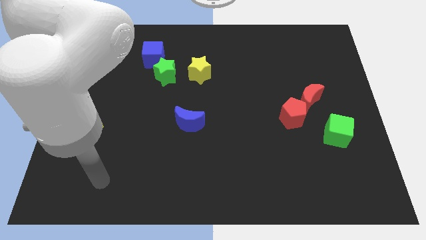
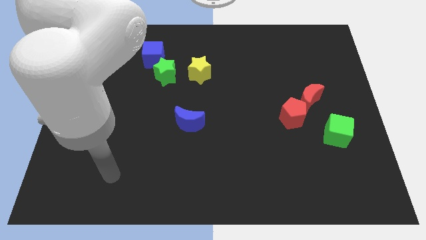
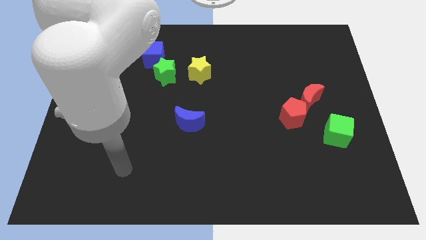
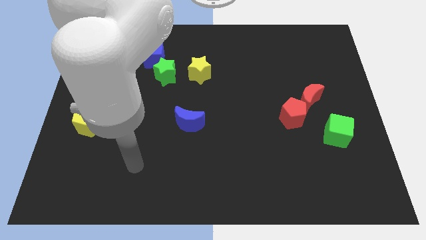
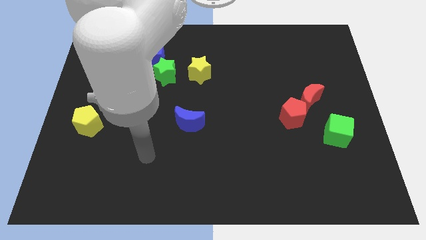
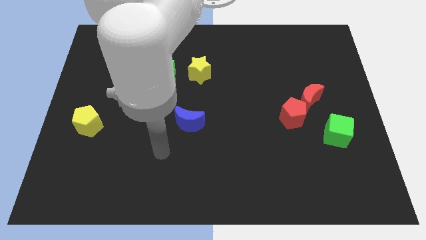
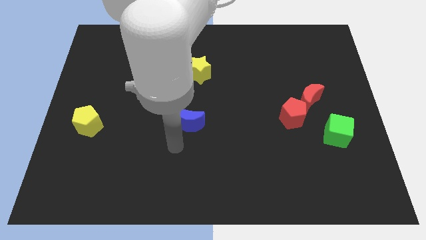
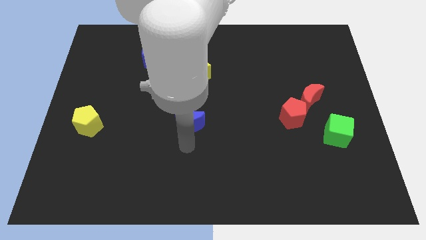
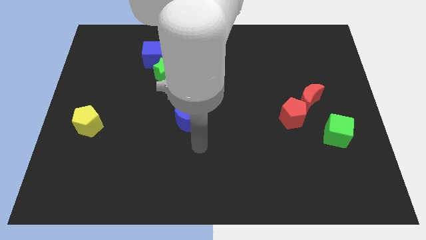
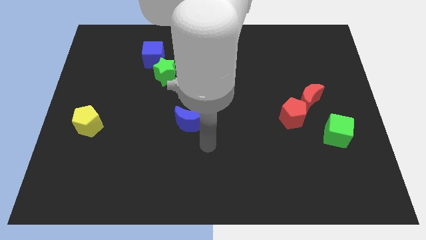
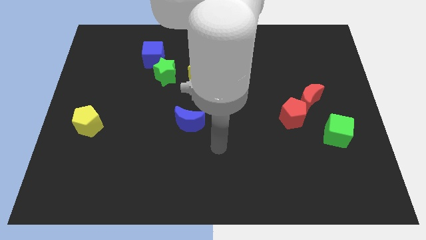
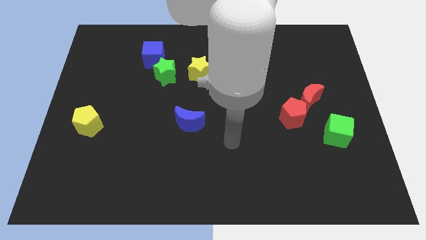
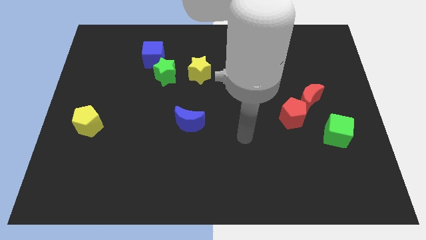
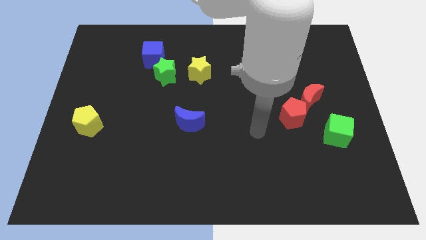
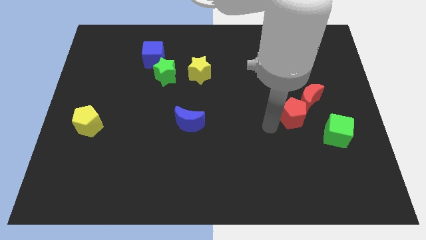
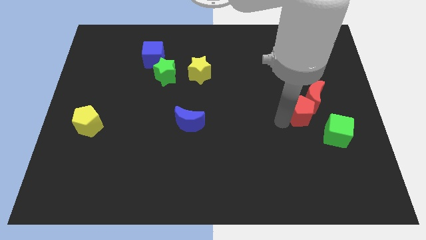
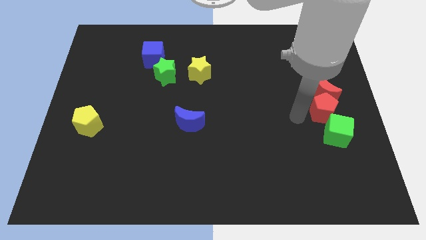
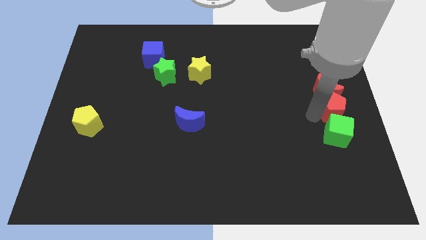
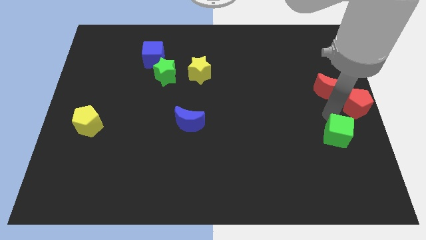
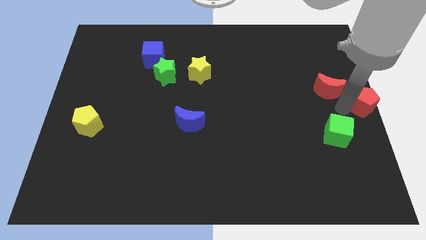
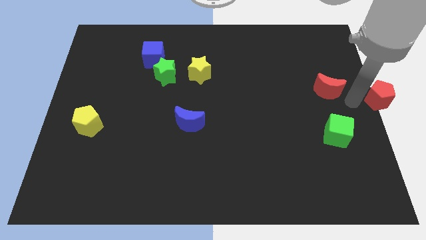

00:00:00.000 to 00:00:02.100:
move the red moon away from the red pentagon

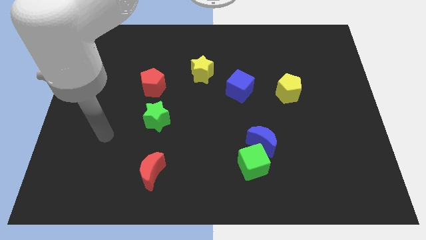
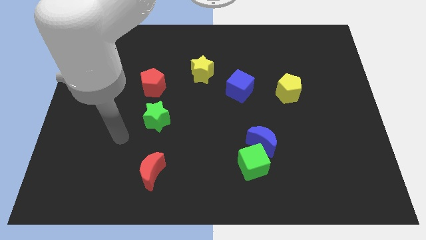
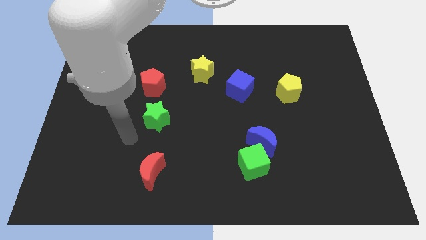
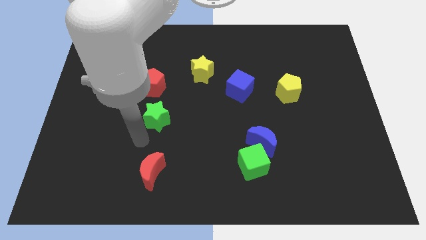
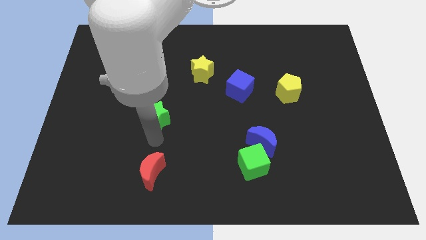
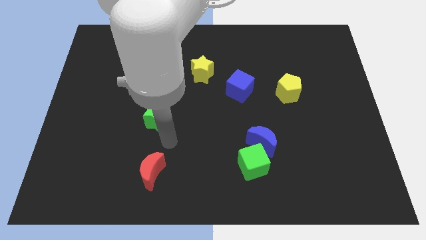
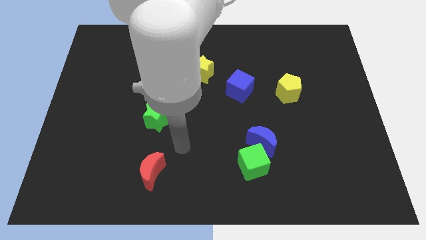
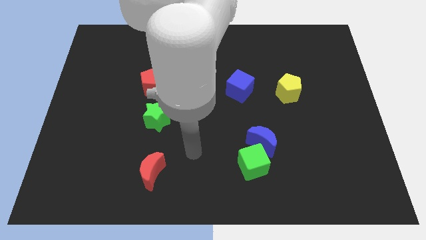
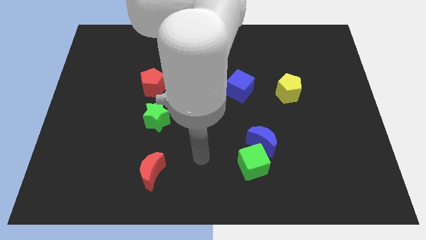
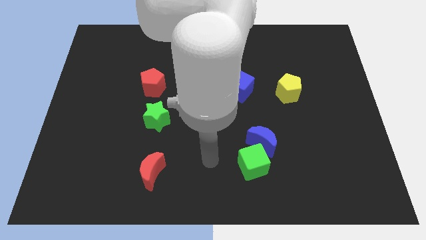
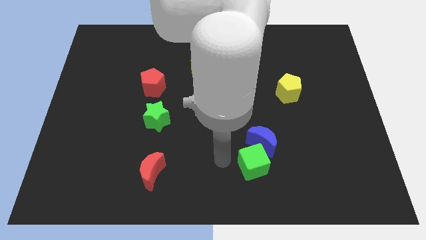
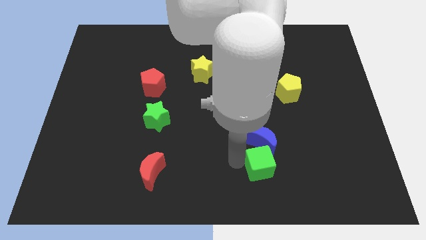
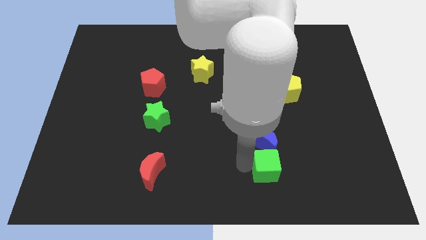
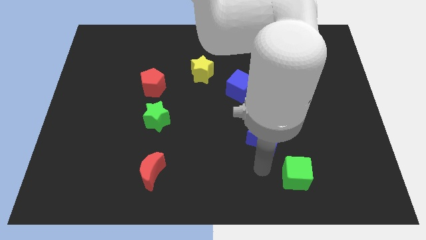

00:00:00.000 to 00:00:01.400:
move the blue moon away from the green cube

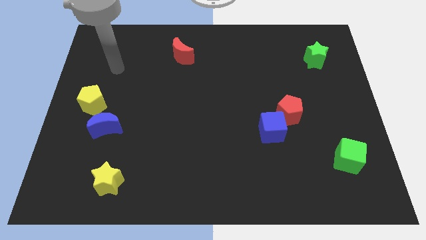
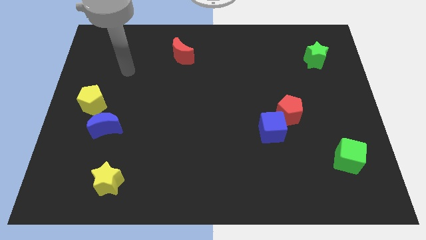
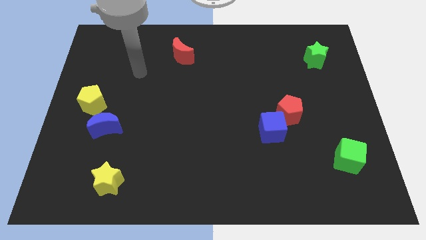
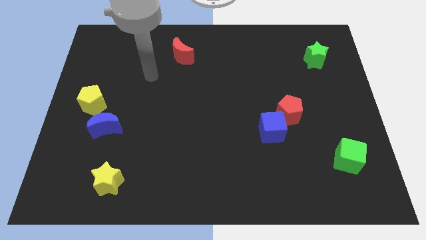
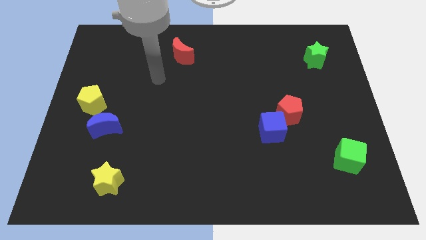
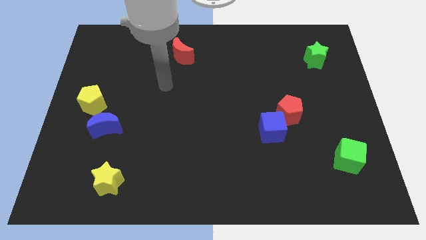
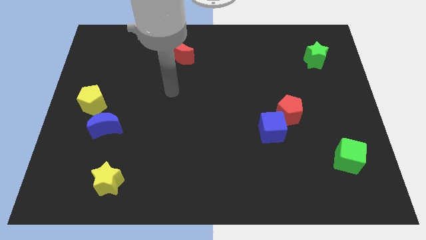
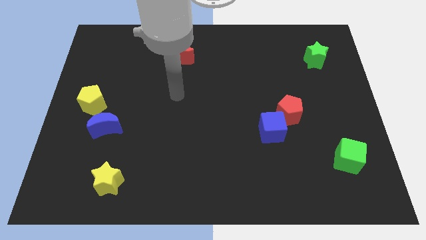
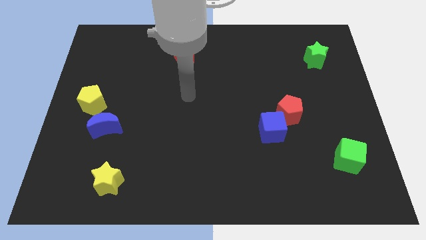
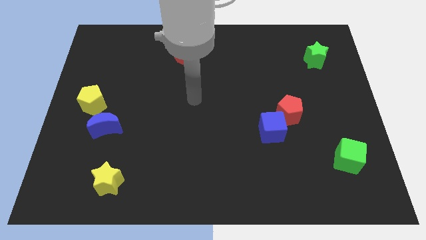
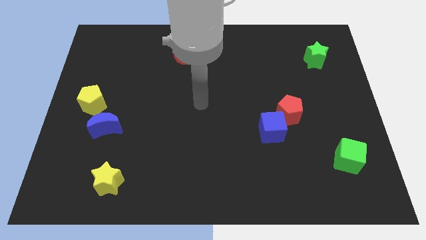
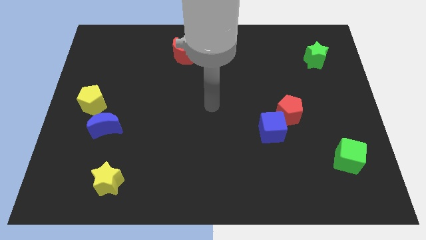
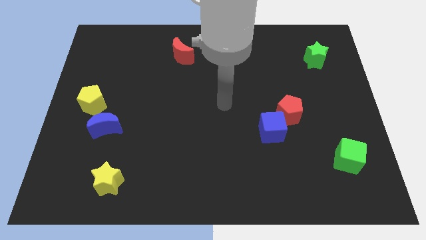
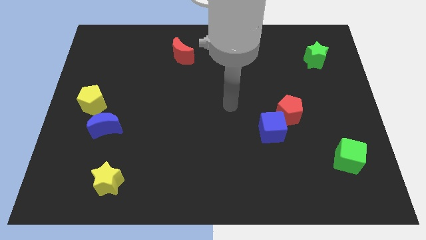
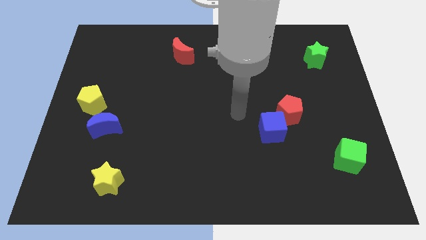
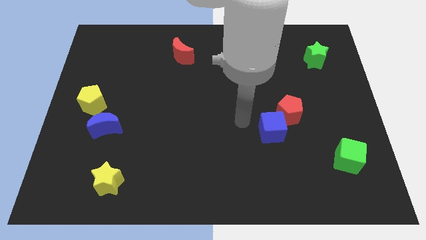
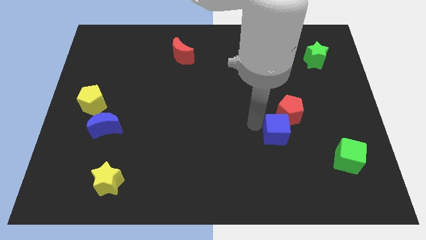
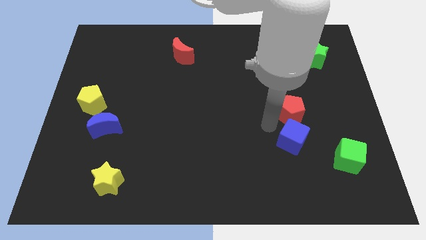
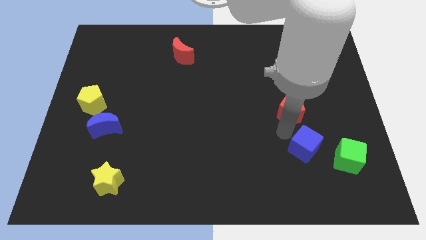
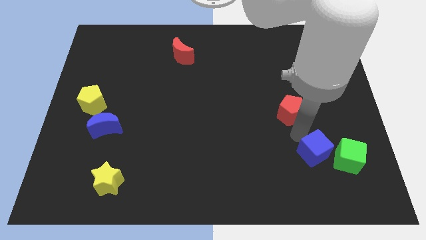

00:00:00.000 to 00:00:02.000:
separate the red pentagon from the blue cube

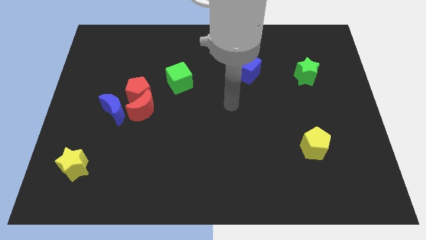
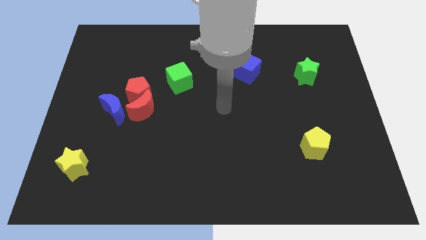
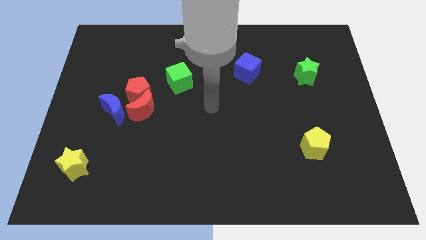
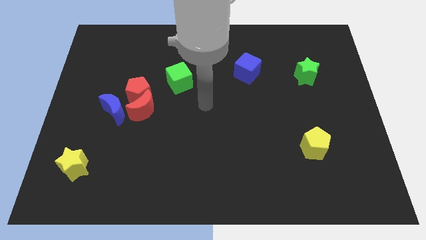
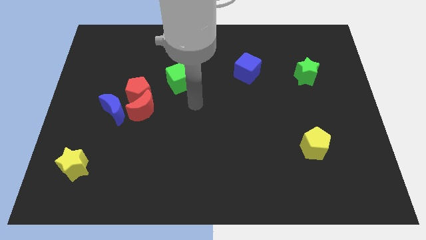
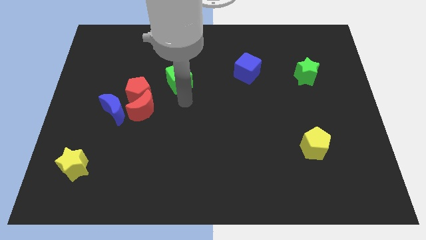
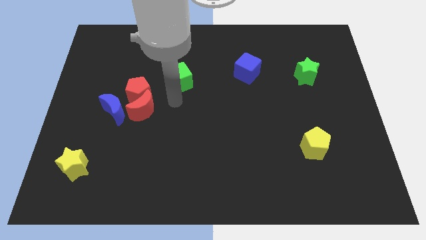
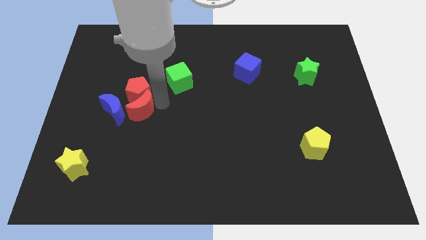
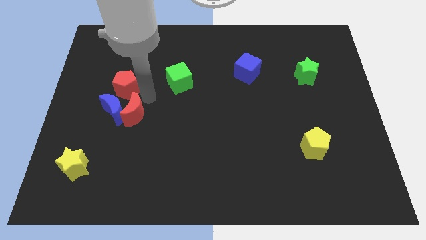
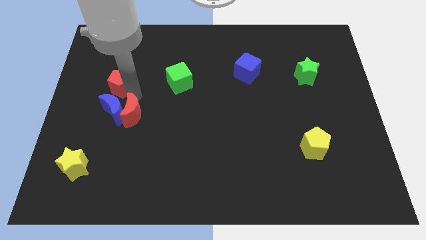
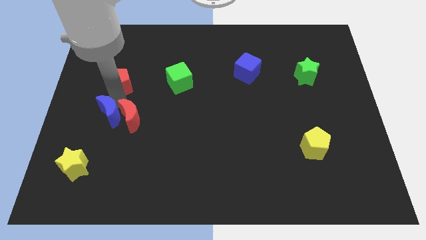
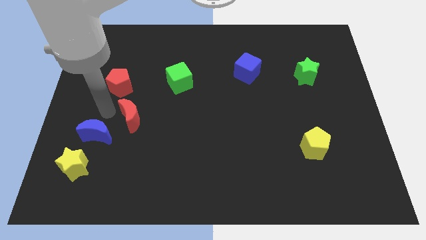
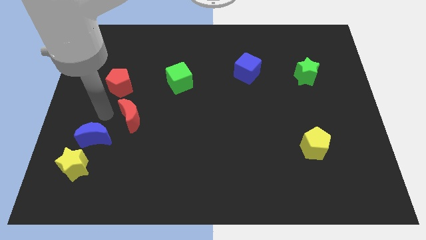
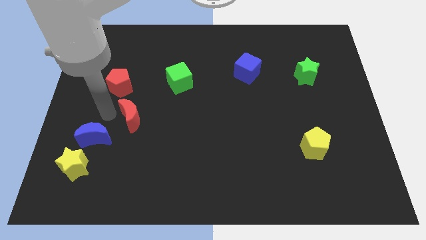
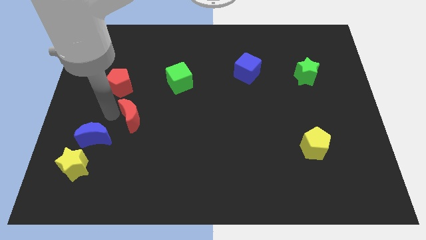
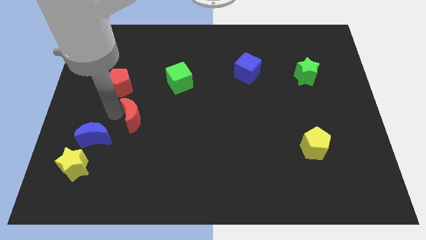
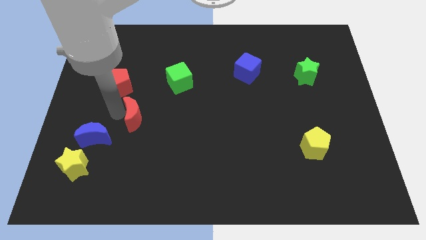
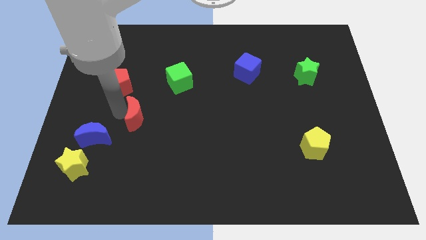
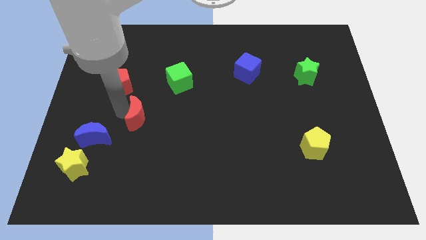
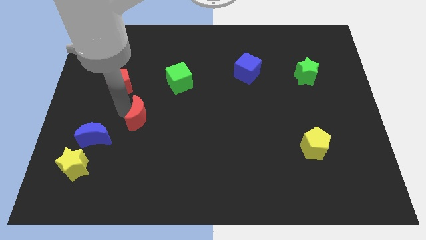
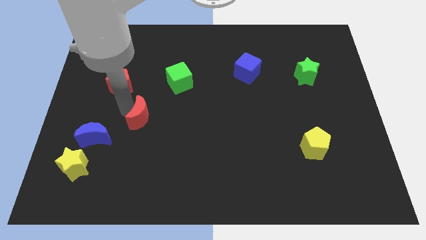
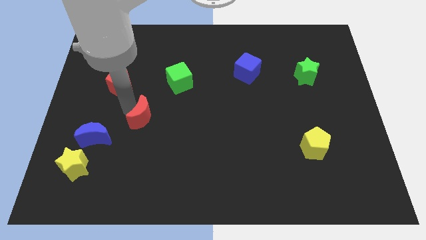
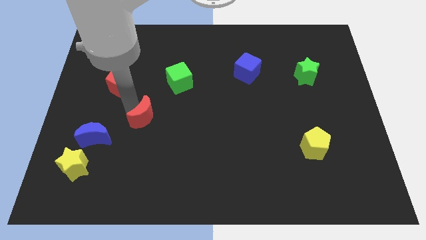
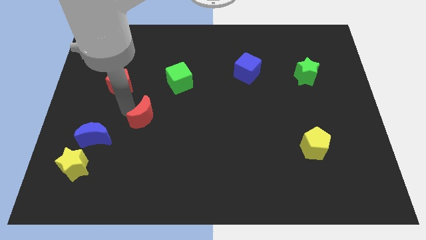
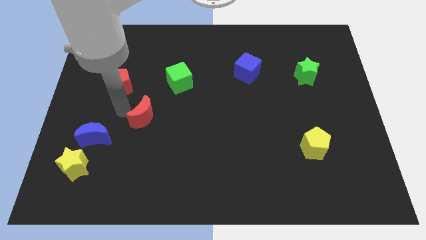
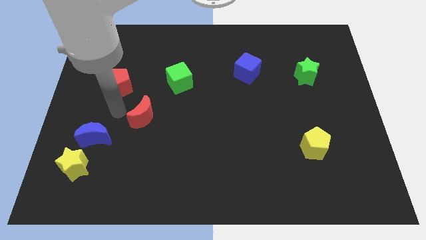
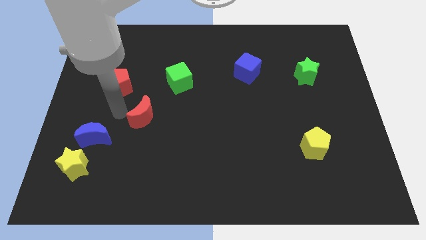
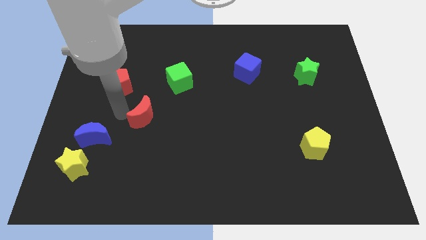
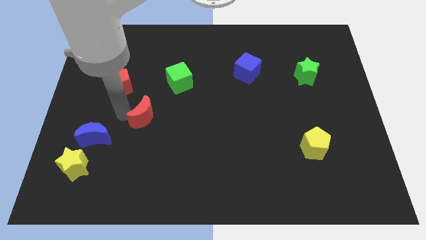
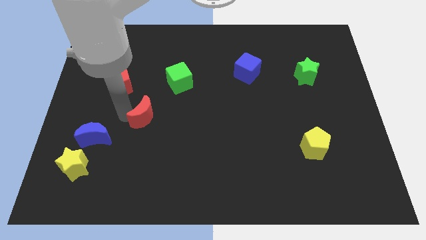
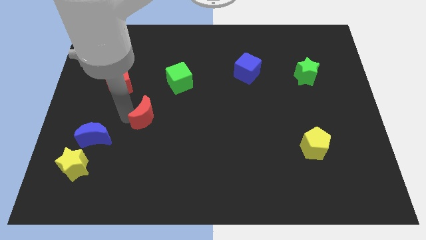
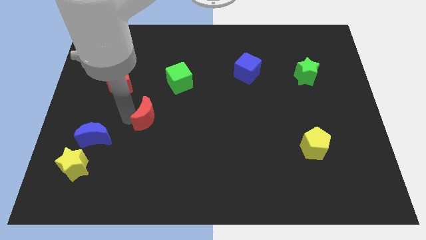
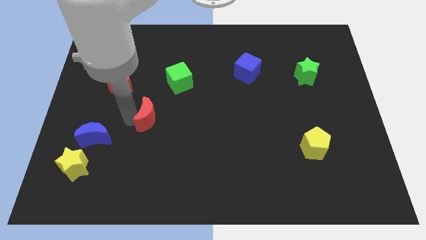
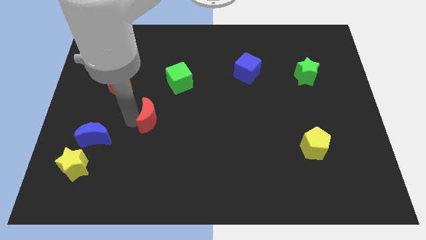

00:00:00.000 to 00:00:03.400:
move the red moon away from the red pentagon and blue moon

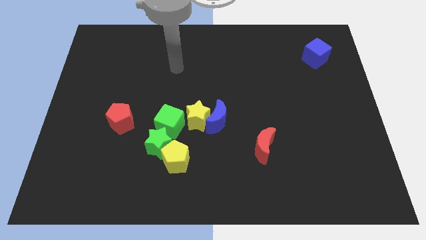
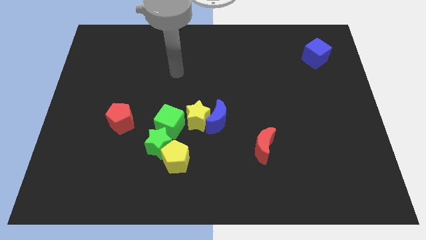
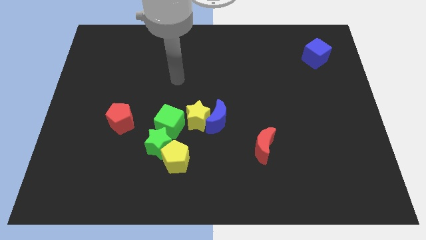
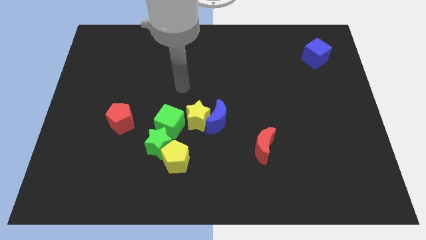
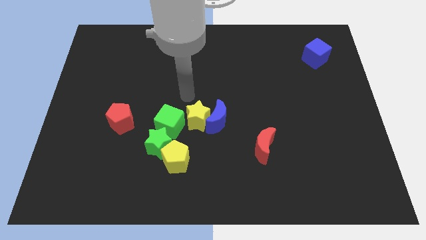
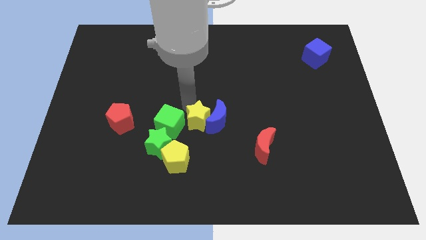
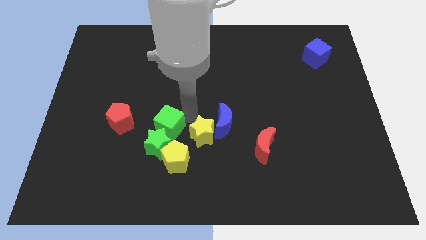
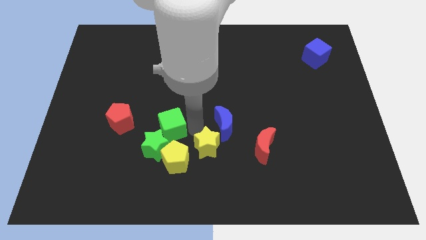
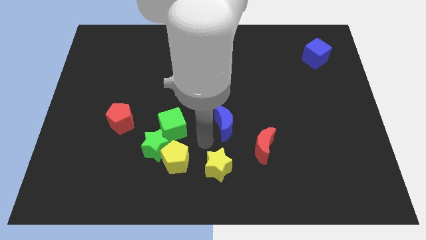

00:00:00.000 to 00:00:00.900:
move the blue moon away from the yellow star
